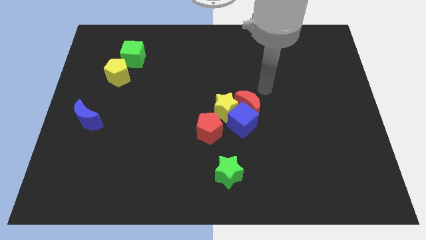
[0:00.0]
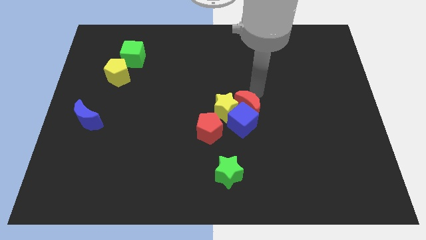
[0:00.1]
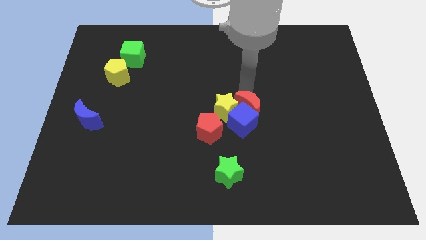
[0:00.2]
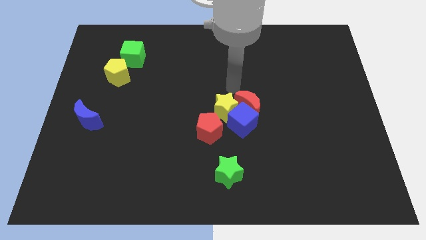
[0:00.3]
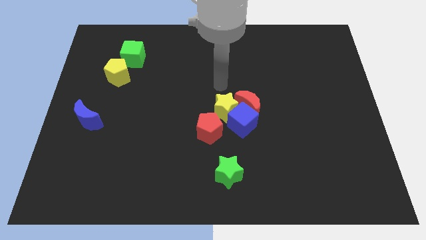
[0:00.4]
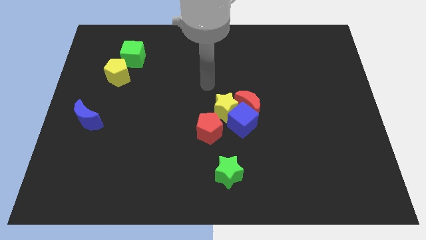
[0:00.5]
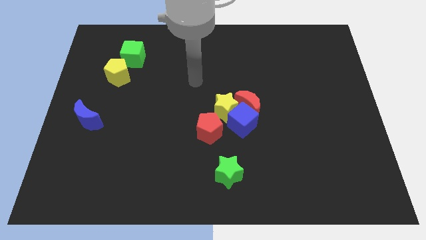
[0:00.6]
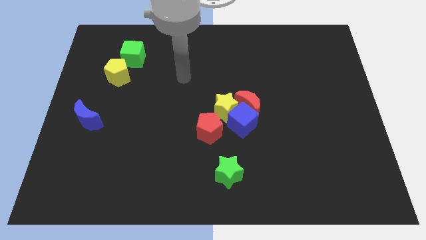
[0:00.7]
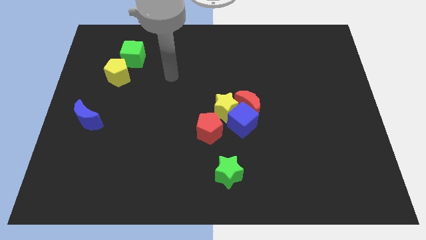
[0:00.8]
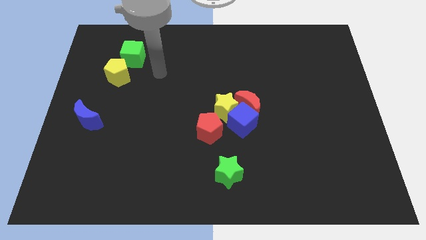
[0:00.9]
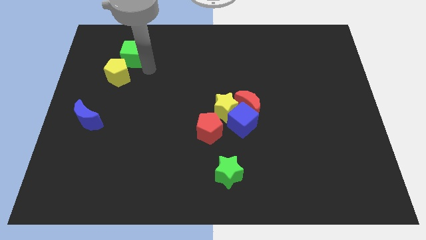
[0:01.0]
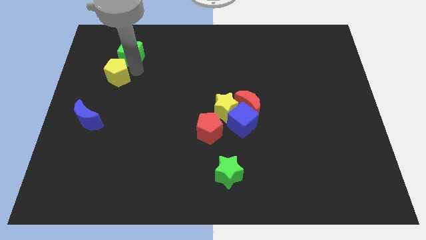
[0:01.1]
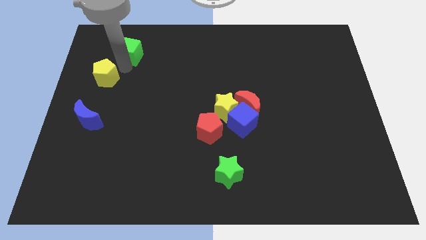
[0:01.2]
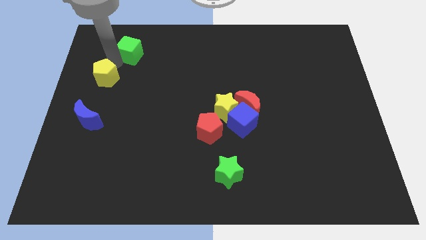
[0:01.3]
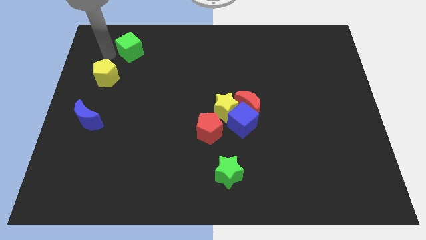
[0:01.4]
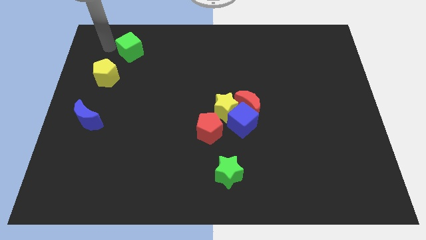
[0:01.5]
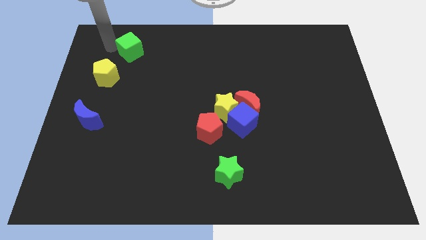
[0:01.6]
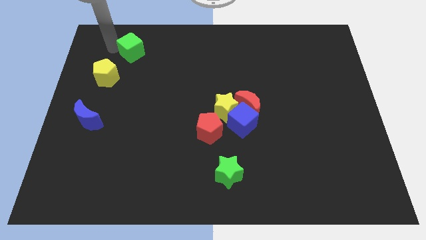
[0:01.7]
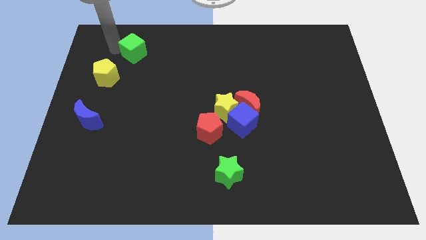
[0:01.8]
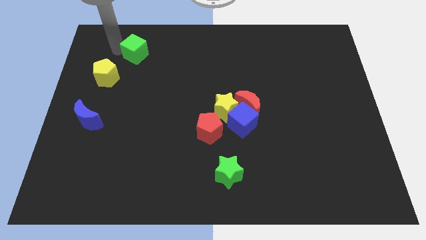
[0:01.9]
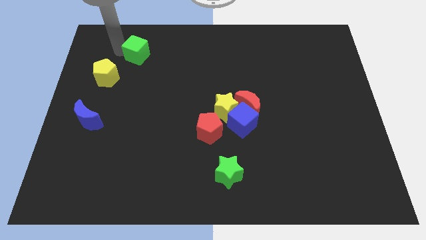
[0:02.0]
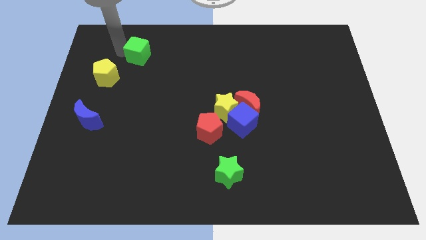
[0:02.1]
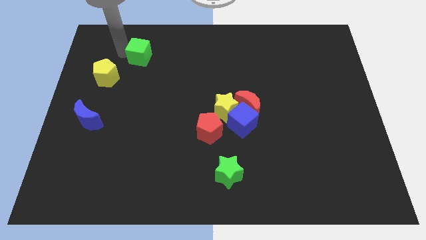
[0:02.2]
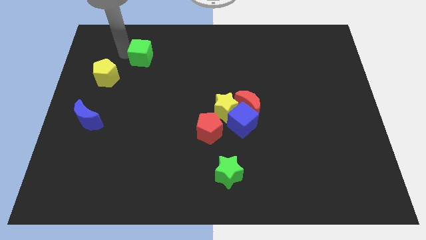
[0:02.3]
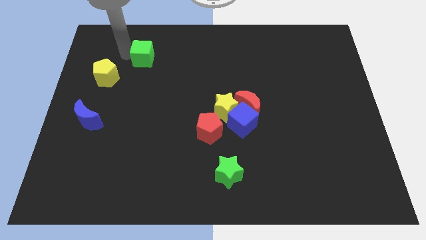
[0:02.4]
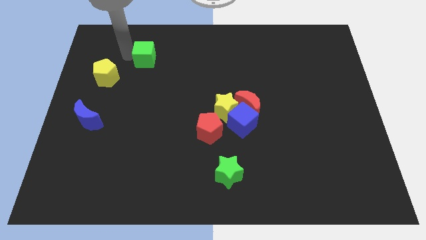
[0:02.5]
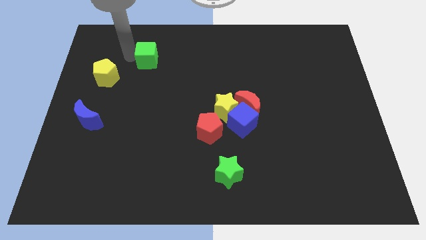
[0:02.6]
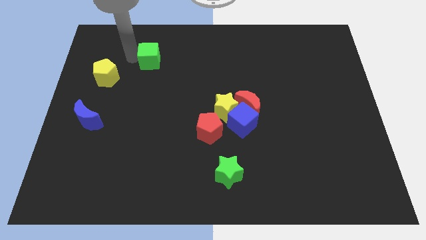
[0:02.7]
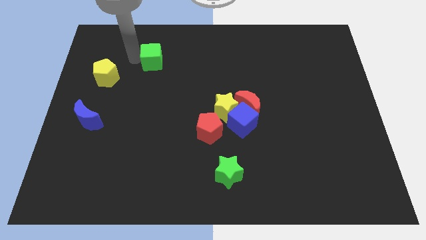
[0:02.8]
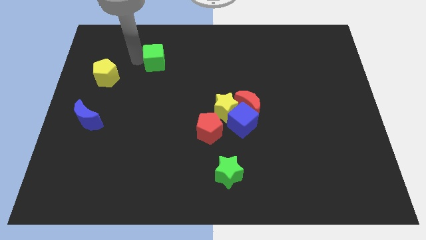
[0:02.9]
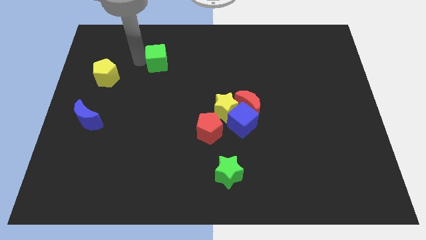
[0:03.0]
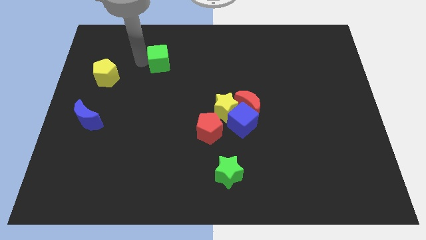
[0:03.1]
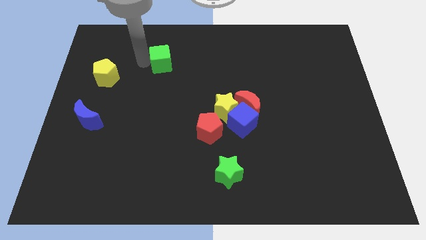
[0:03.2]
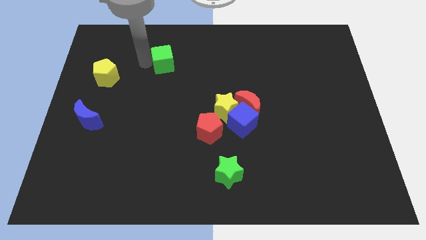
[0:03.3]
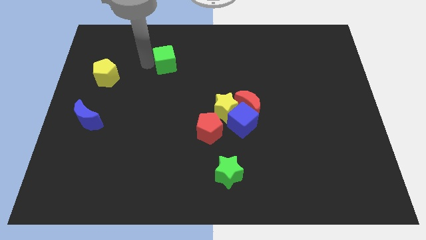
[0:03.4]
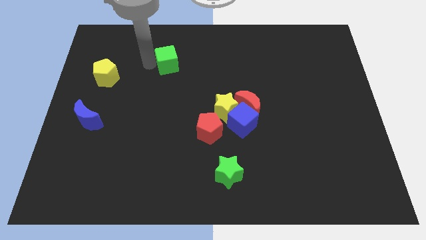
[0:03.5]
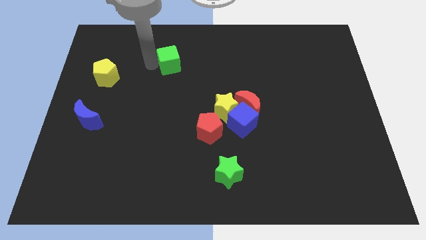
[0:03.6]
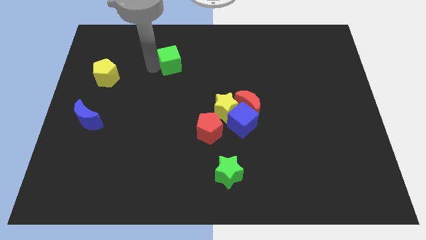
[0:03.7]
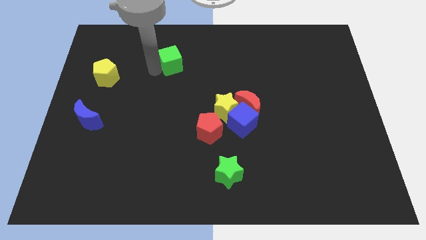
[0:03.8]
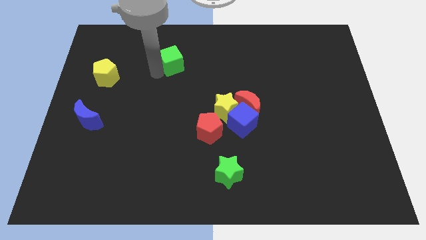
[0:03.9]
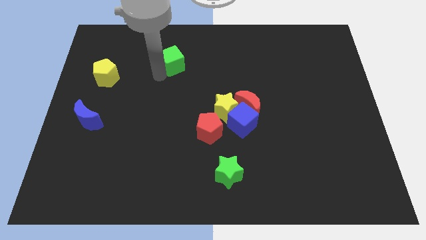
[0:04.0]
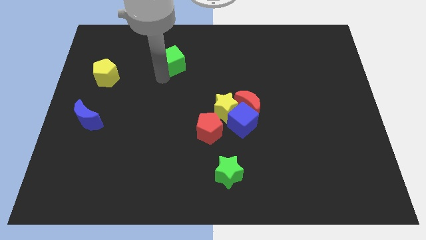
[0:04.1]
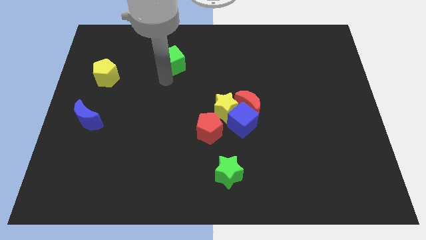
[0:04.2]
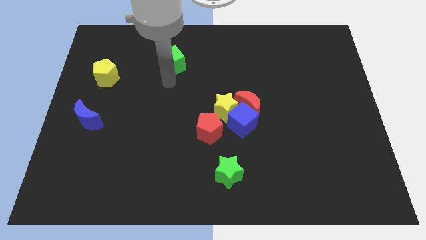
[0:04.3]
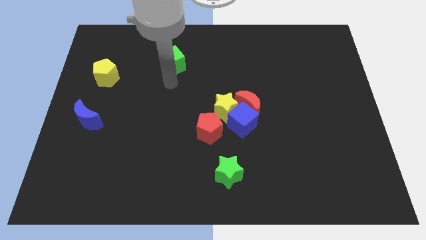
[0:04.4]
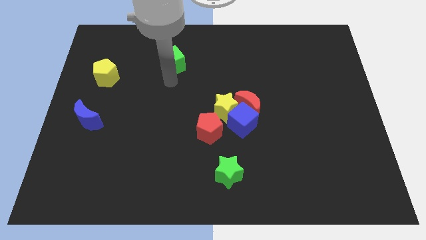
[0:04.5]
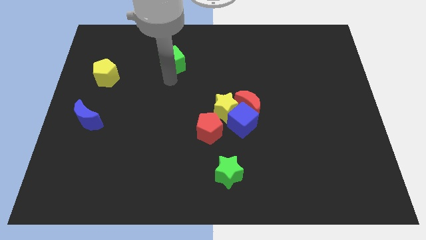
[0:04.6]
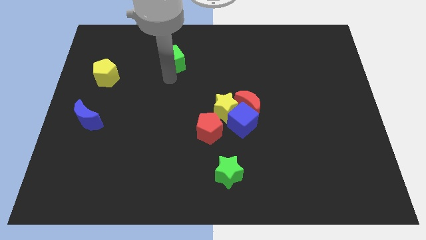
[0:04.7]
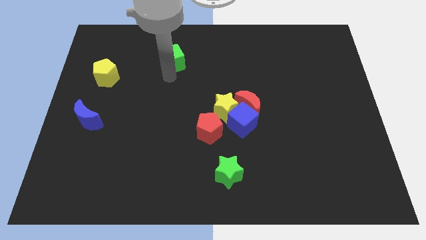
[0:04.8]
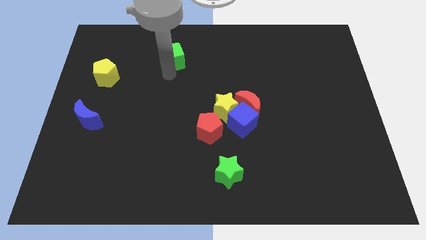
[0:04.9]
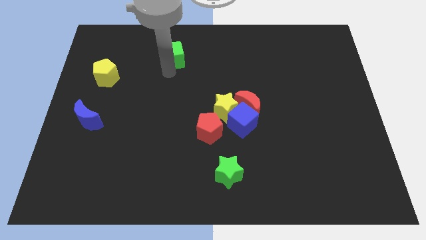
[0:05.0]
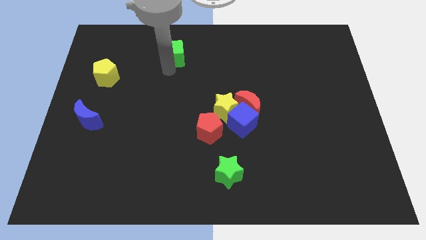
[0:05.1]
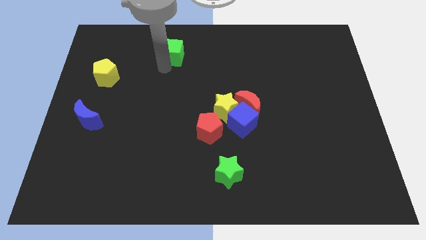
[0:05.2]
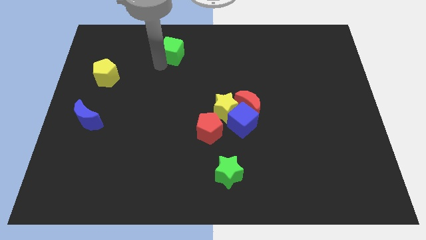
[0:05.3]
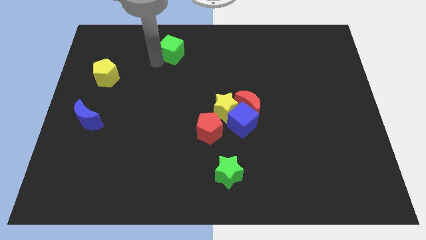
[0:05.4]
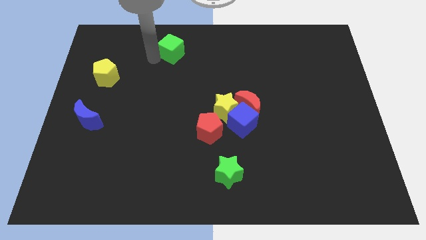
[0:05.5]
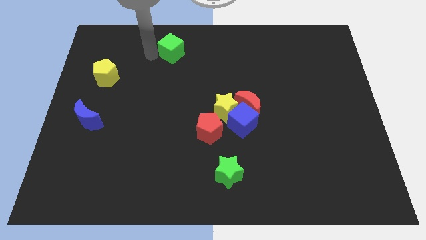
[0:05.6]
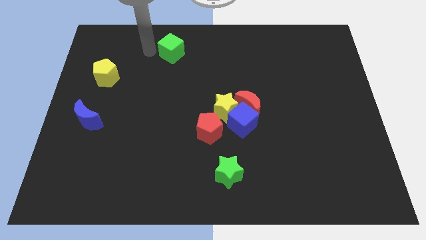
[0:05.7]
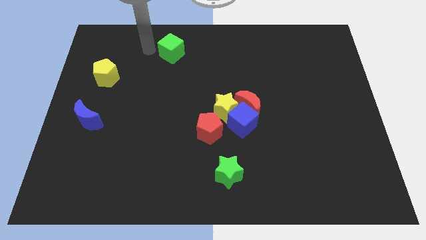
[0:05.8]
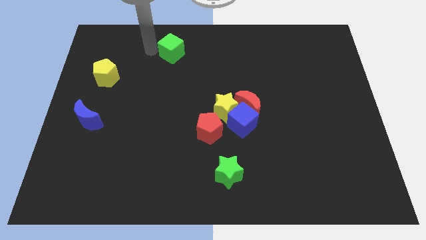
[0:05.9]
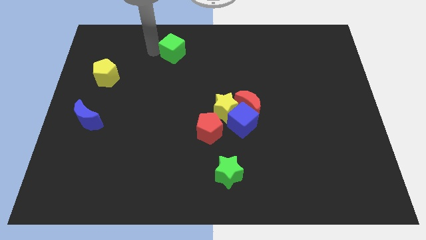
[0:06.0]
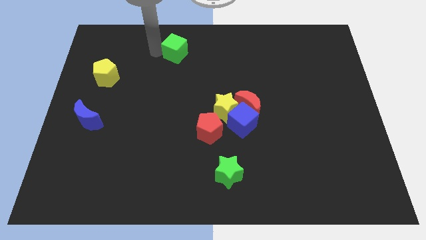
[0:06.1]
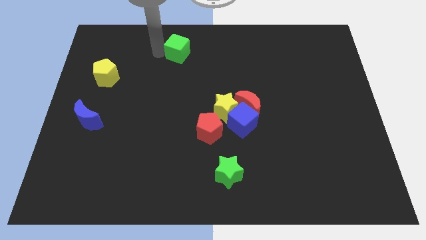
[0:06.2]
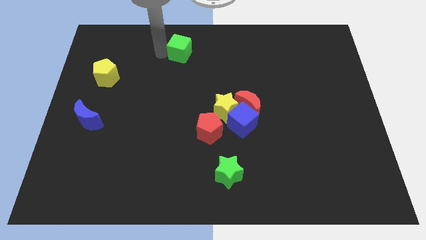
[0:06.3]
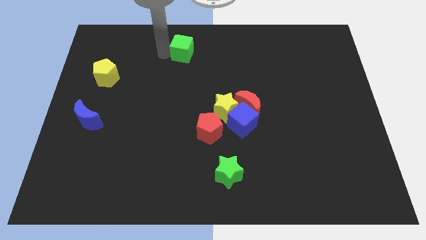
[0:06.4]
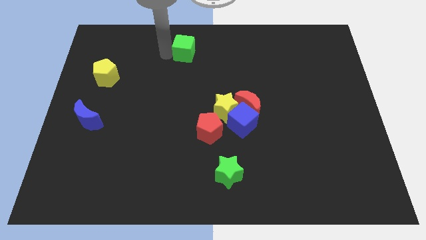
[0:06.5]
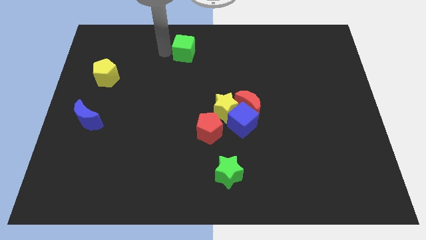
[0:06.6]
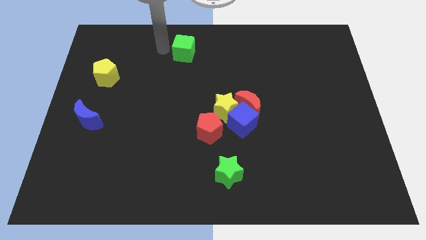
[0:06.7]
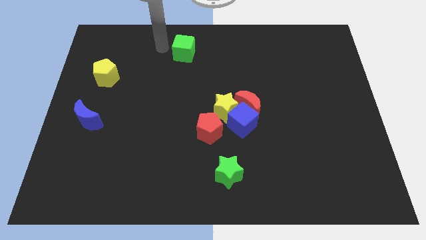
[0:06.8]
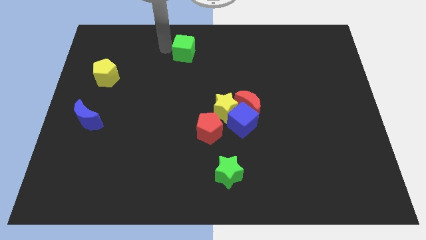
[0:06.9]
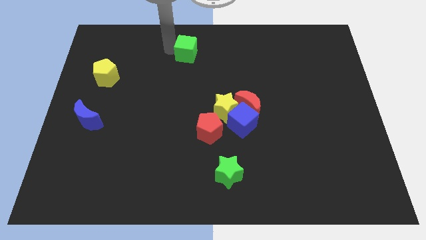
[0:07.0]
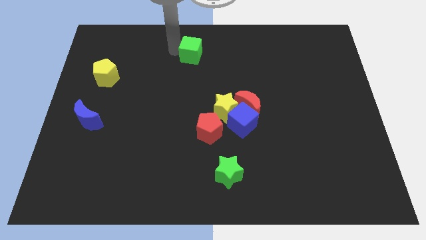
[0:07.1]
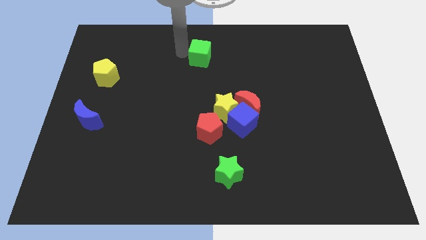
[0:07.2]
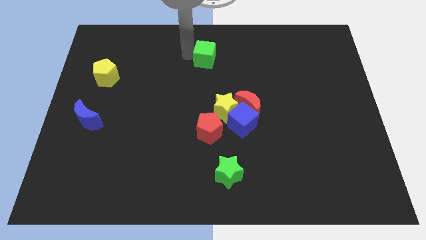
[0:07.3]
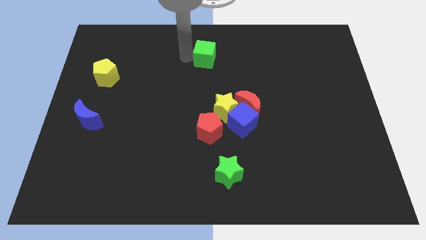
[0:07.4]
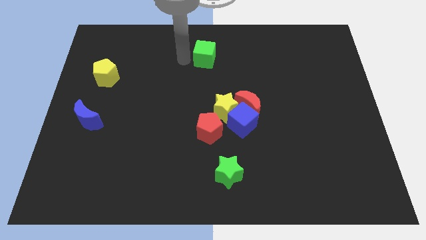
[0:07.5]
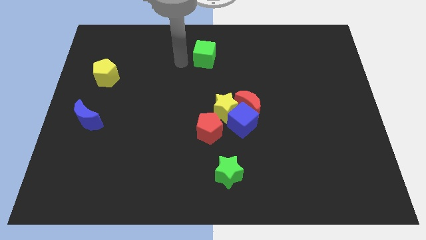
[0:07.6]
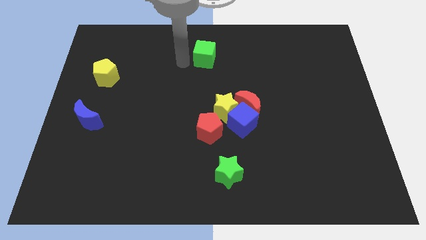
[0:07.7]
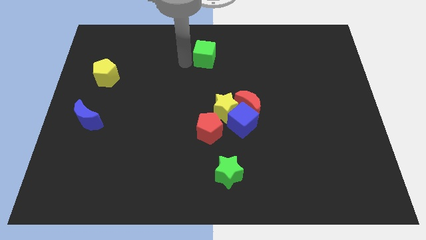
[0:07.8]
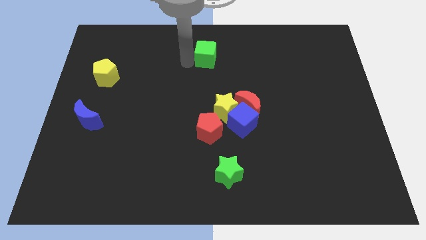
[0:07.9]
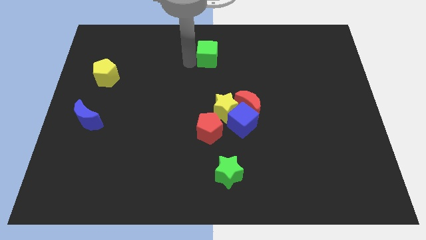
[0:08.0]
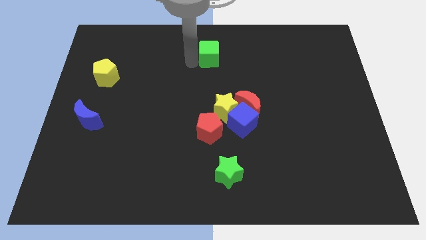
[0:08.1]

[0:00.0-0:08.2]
move the green cube to the right

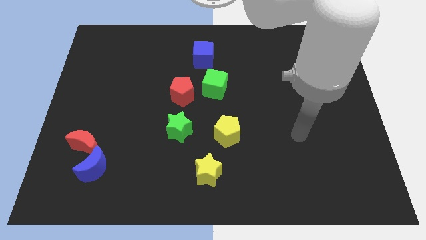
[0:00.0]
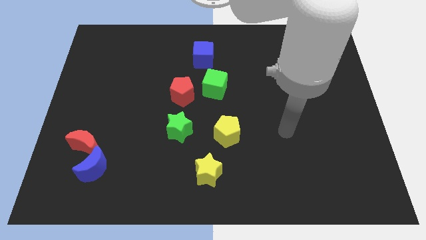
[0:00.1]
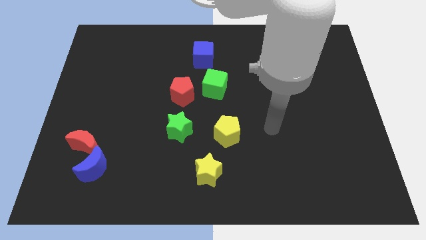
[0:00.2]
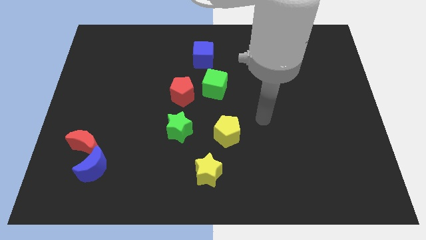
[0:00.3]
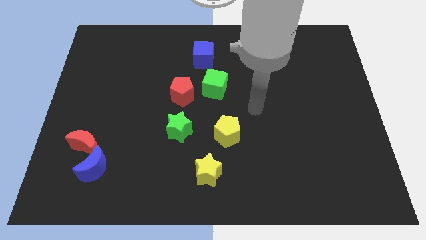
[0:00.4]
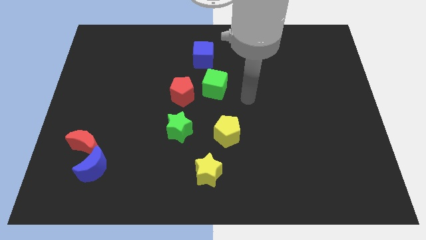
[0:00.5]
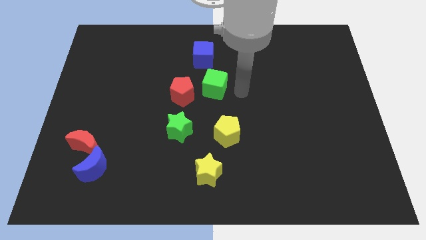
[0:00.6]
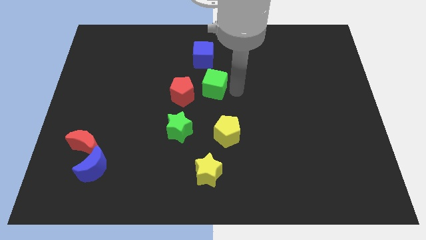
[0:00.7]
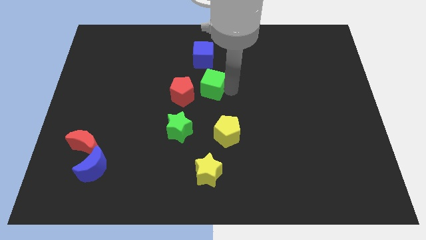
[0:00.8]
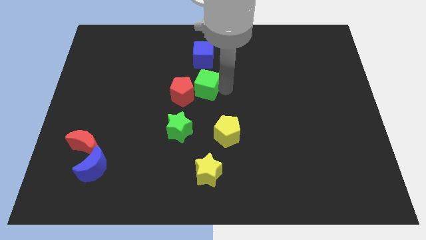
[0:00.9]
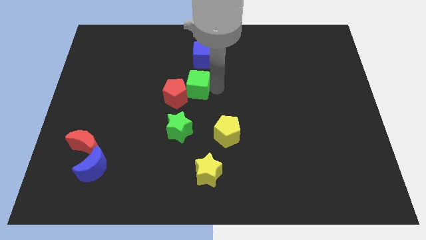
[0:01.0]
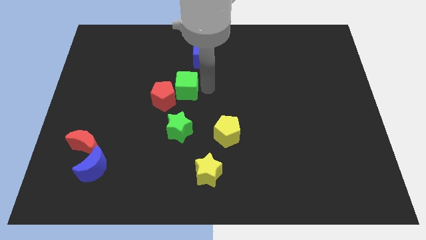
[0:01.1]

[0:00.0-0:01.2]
push the green cube slightly to the left
